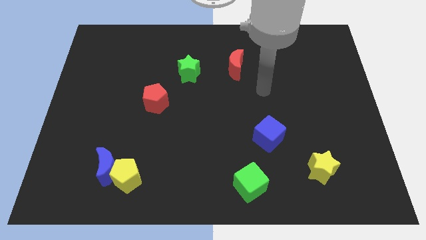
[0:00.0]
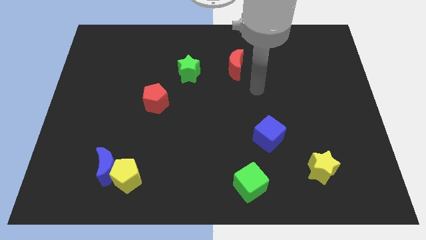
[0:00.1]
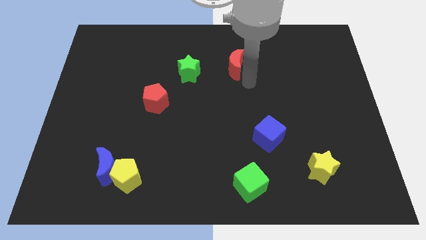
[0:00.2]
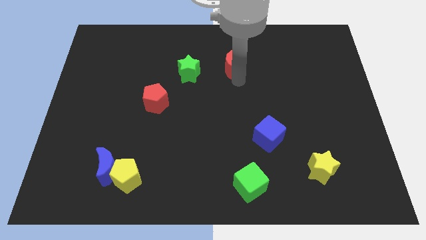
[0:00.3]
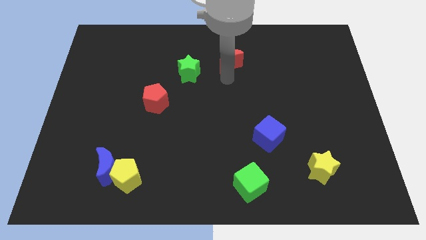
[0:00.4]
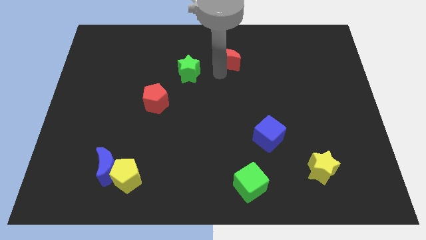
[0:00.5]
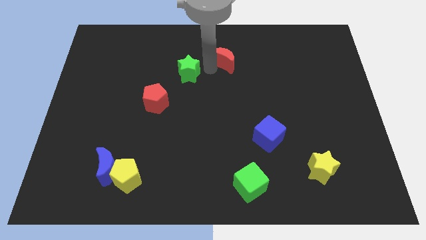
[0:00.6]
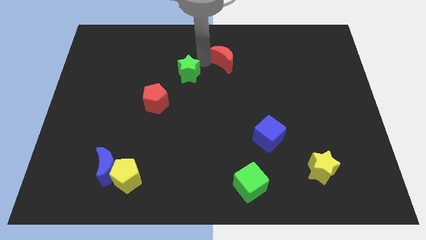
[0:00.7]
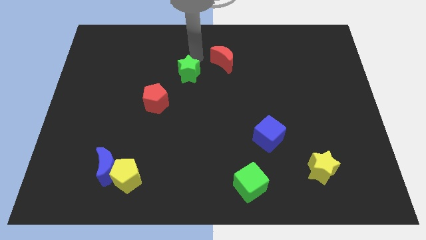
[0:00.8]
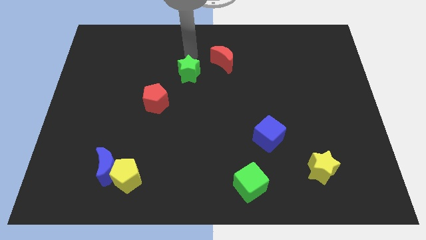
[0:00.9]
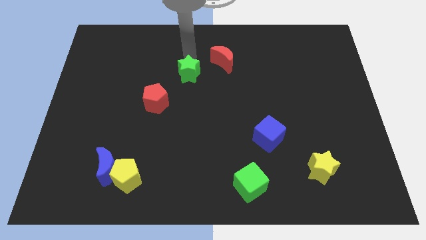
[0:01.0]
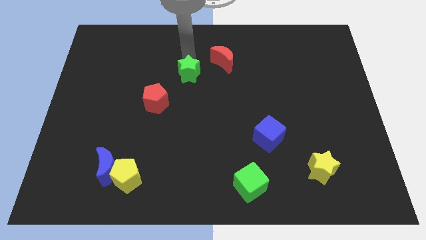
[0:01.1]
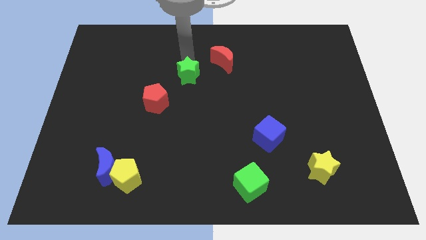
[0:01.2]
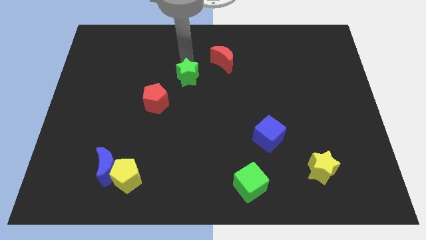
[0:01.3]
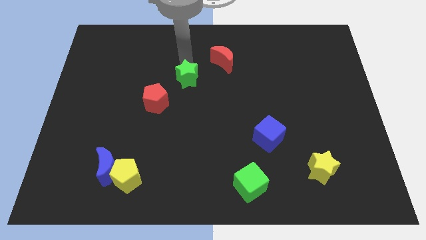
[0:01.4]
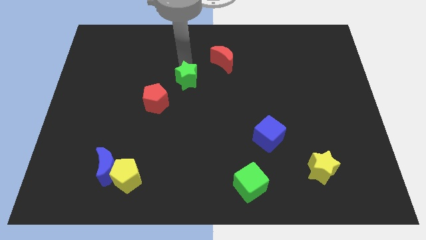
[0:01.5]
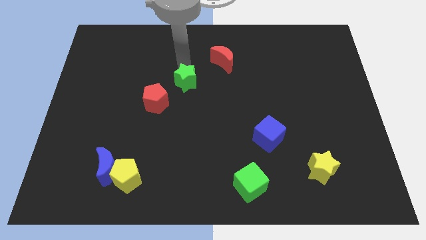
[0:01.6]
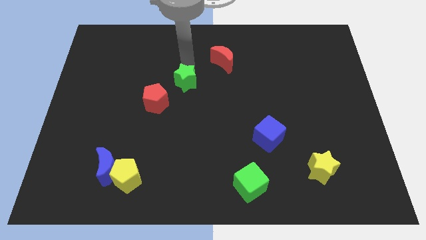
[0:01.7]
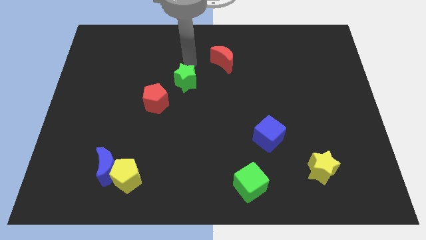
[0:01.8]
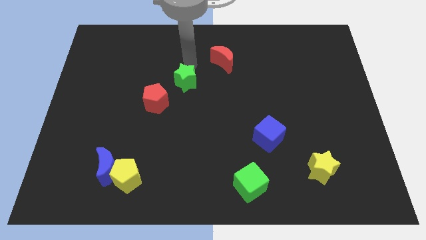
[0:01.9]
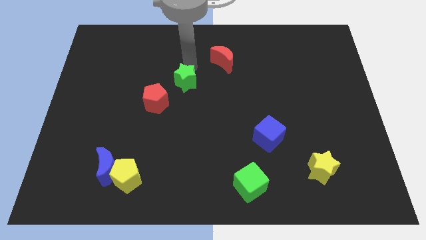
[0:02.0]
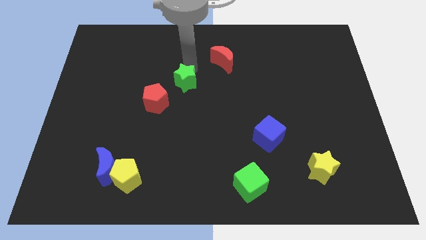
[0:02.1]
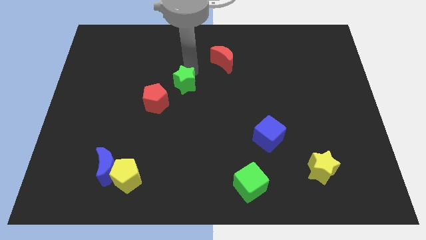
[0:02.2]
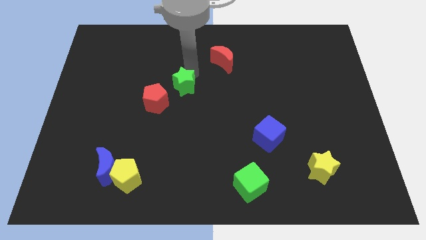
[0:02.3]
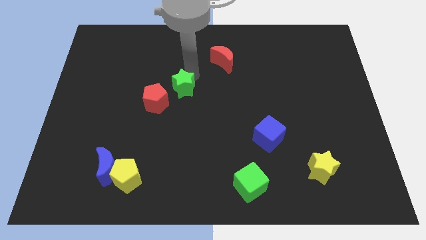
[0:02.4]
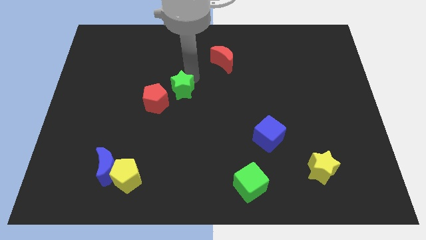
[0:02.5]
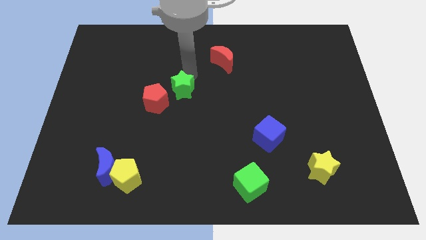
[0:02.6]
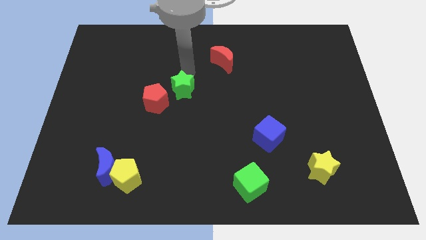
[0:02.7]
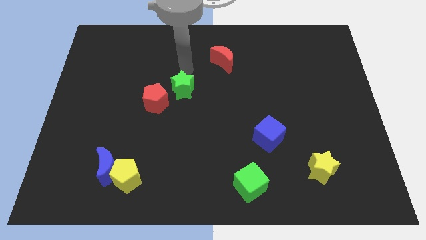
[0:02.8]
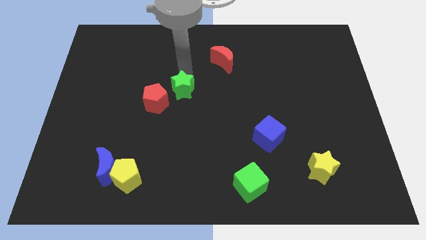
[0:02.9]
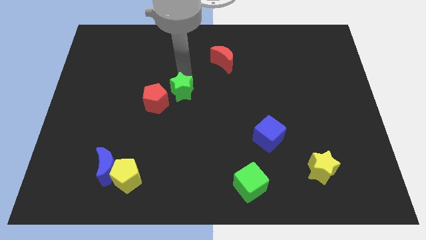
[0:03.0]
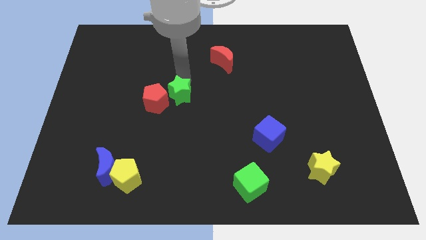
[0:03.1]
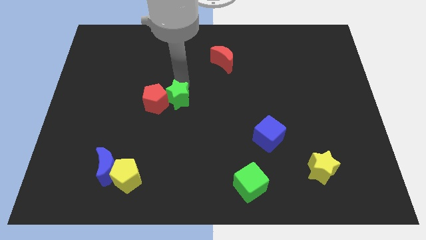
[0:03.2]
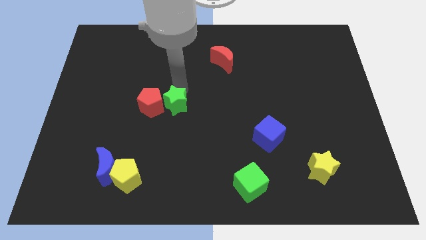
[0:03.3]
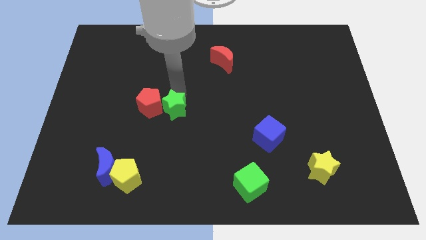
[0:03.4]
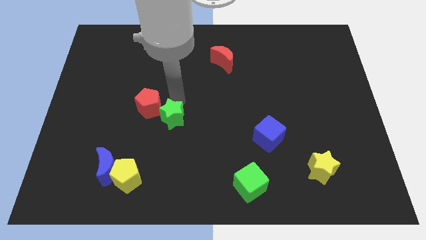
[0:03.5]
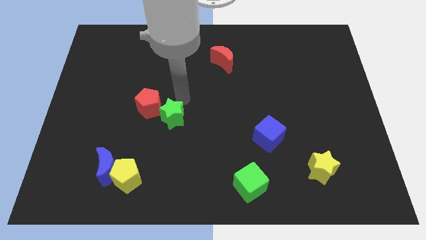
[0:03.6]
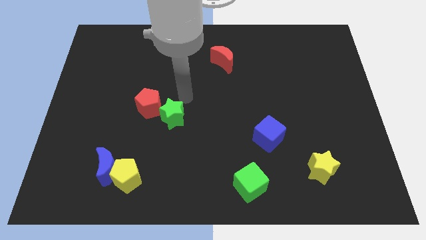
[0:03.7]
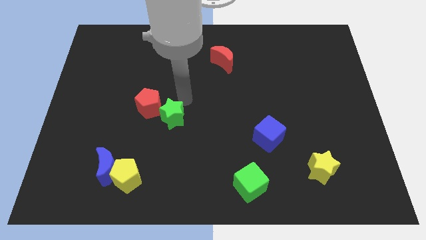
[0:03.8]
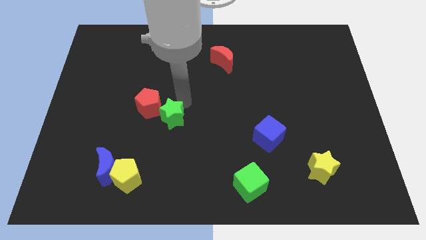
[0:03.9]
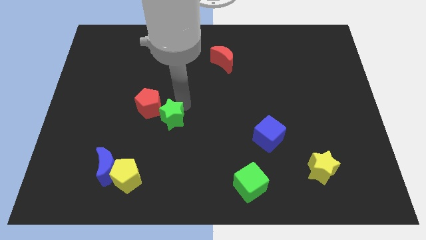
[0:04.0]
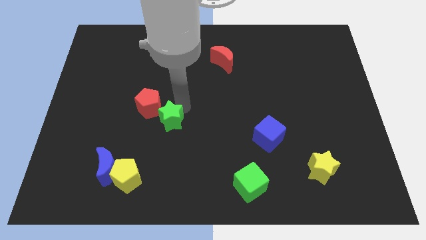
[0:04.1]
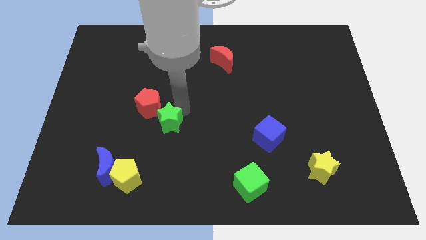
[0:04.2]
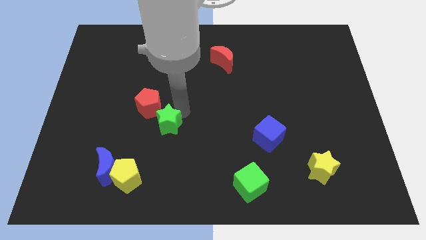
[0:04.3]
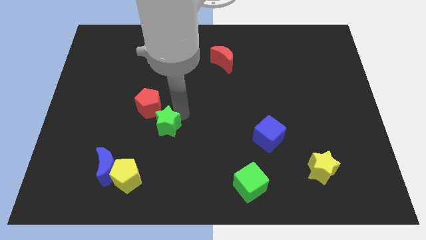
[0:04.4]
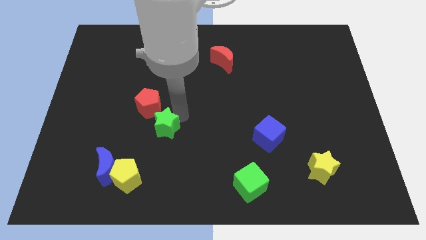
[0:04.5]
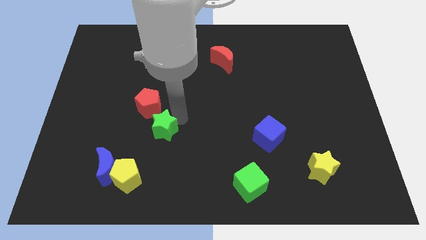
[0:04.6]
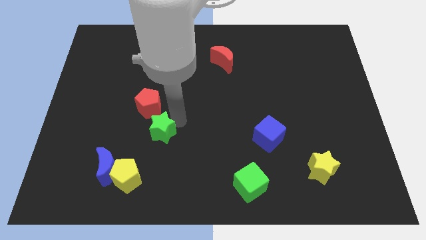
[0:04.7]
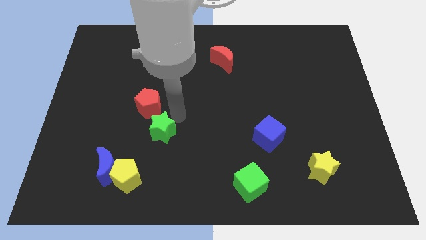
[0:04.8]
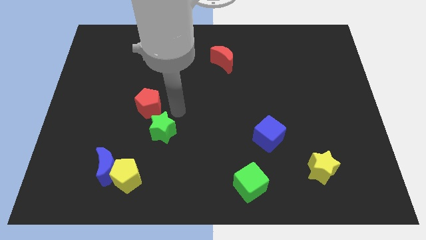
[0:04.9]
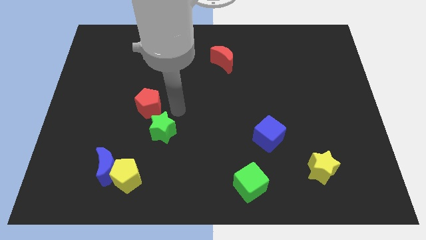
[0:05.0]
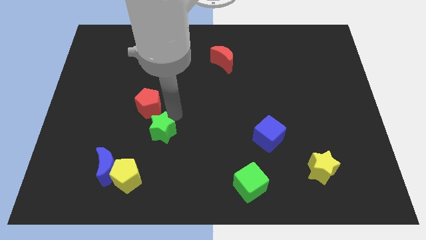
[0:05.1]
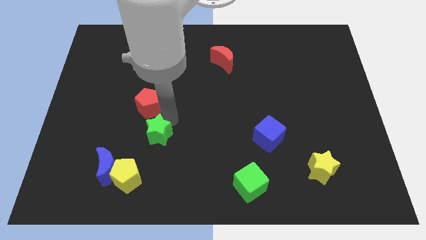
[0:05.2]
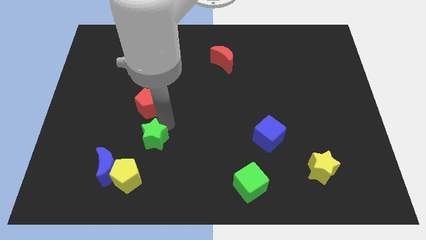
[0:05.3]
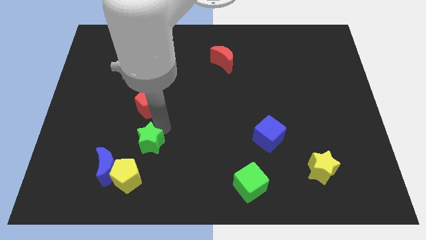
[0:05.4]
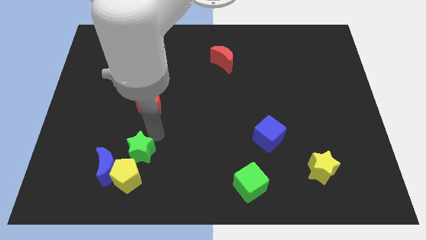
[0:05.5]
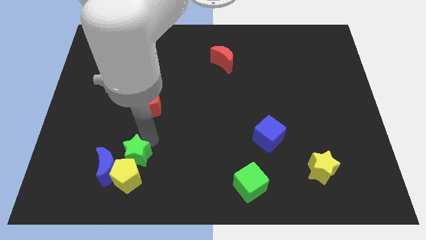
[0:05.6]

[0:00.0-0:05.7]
push the green star close to the yellow pentagon
